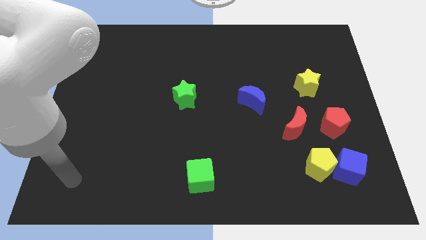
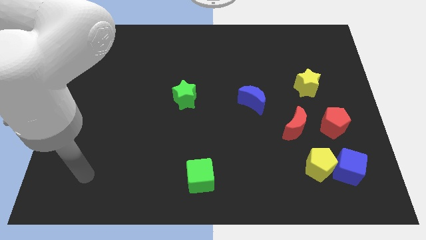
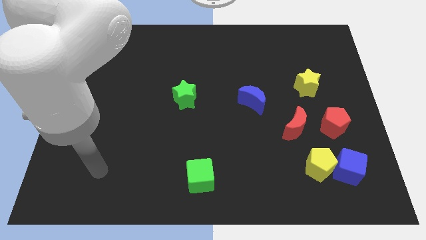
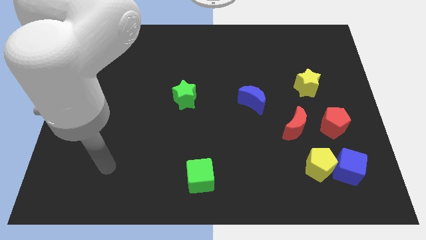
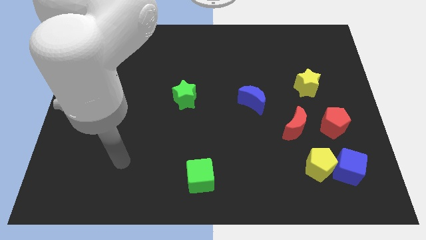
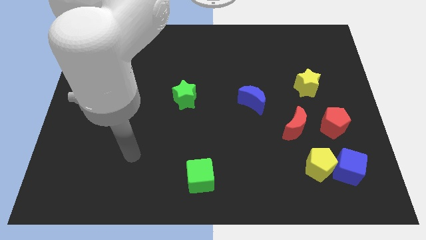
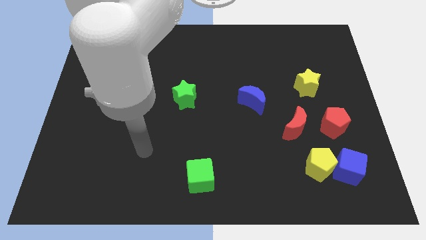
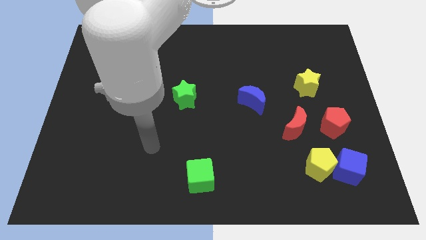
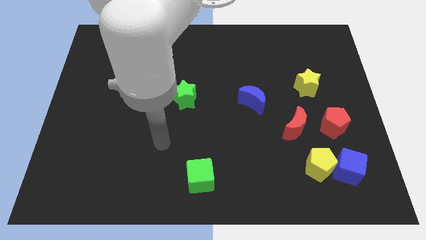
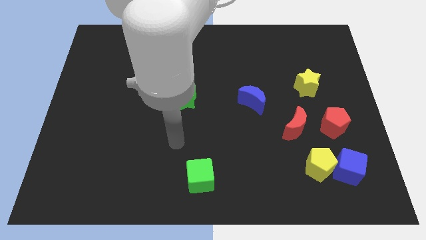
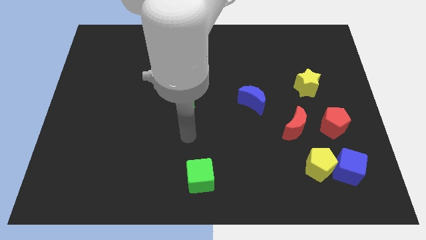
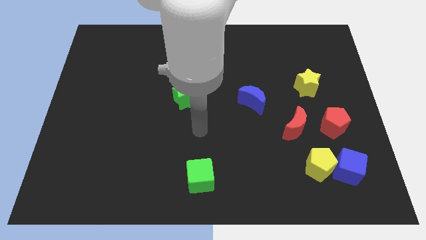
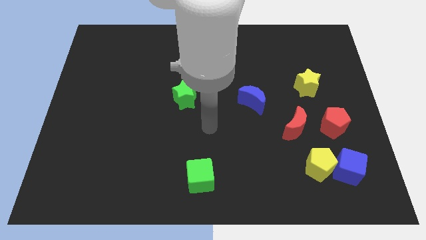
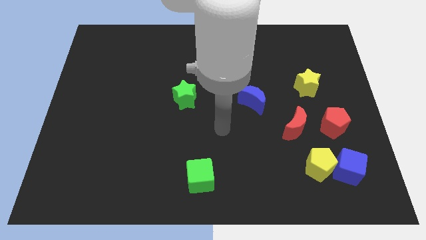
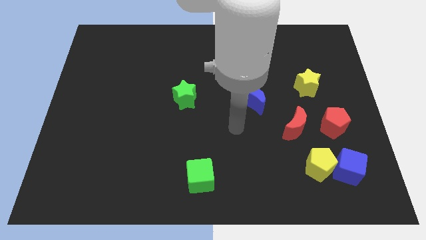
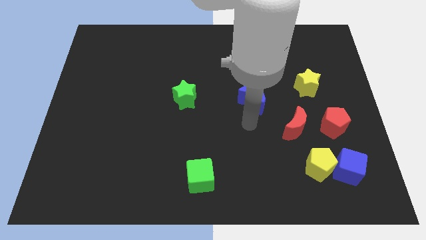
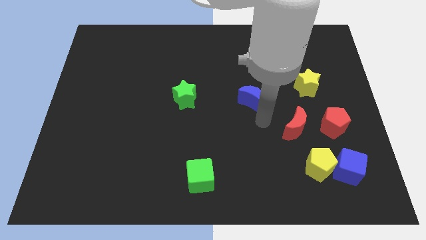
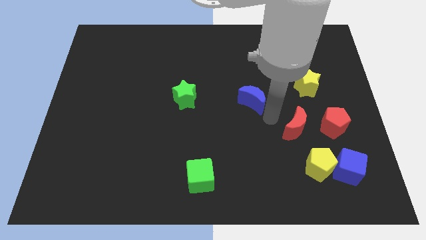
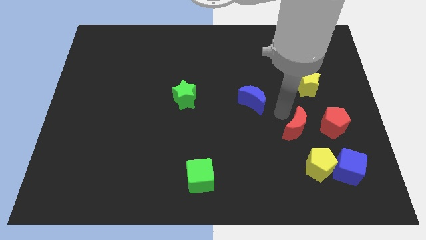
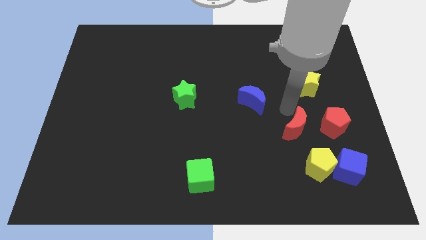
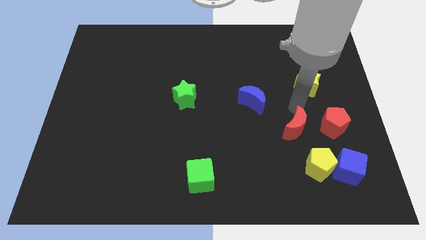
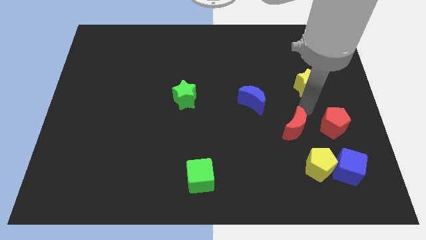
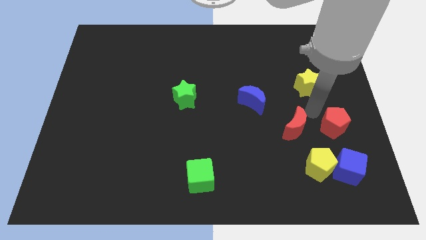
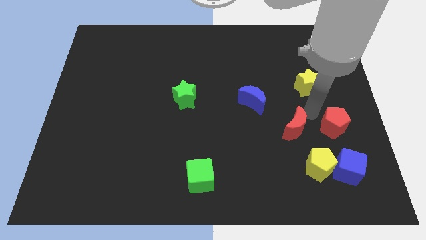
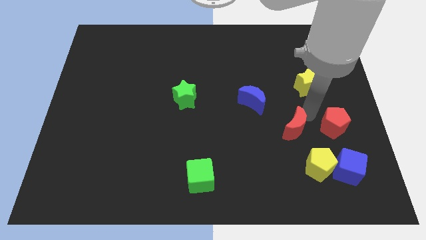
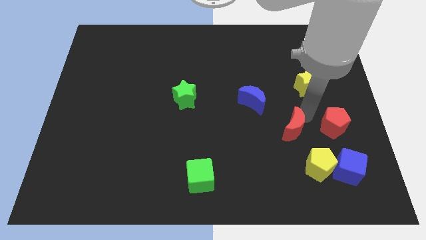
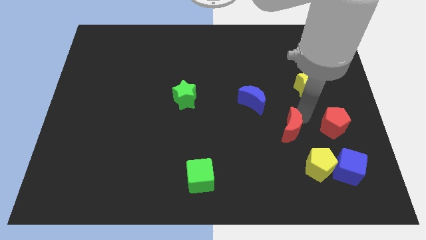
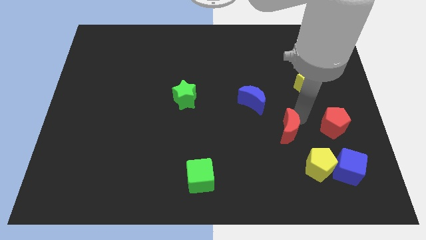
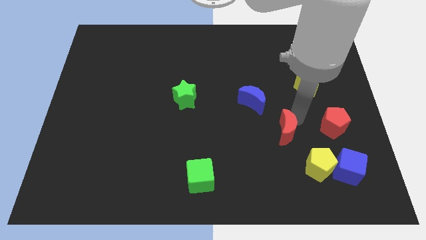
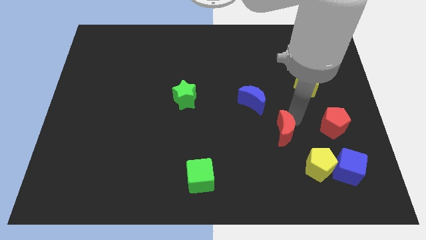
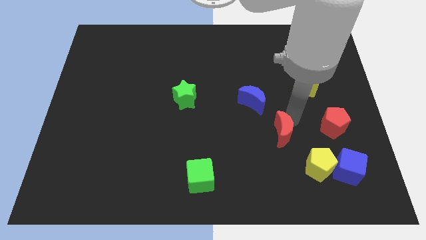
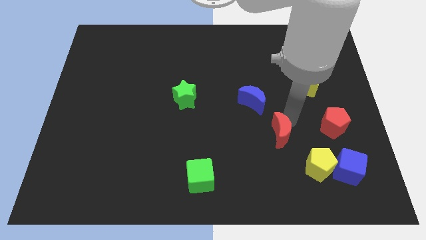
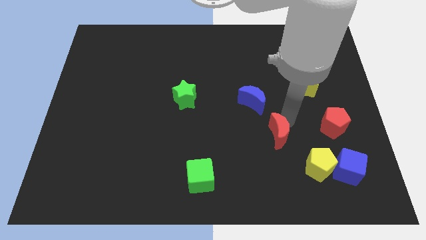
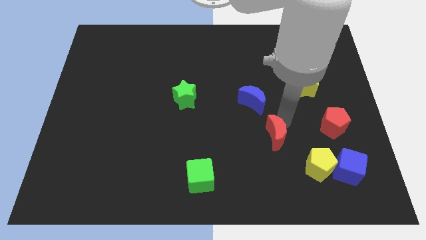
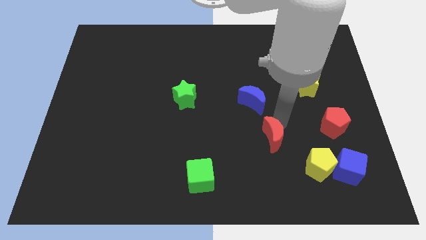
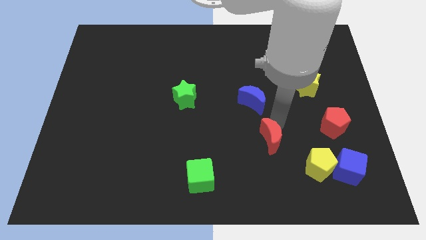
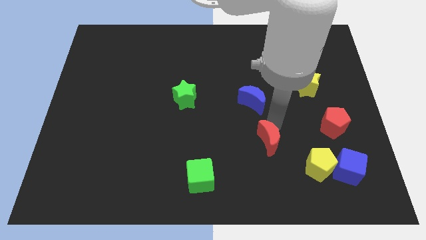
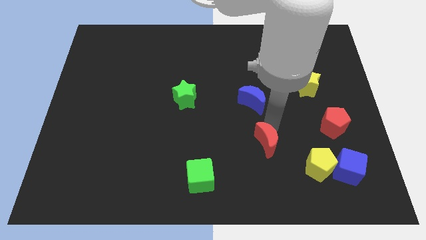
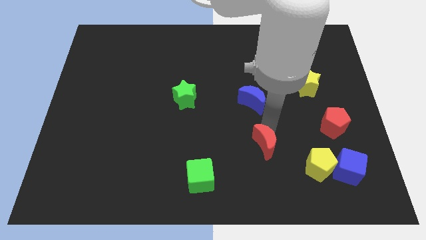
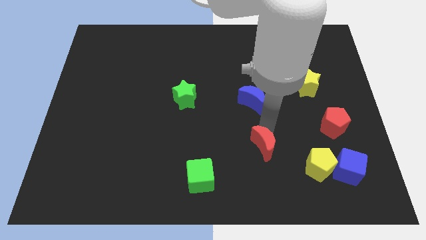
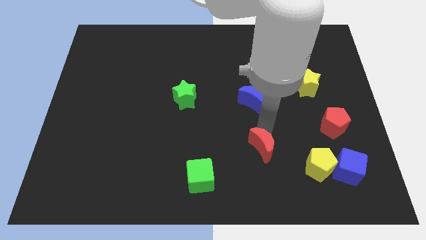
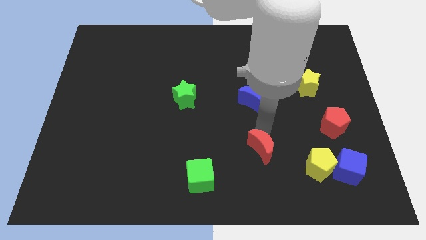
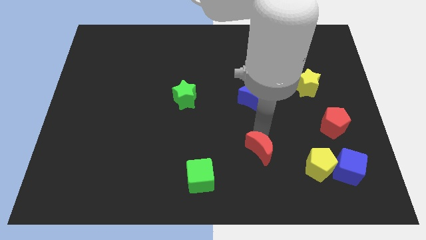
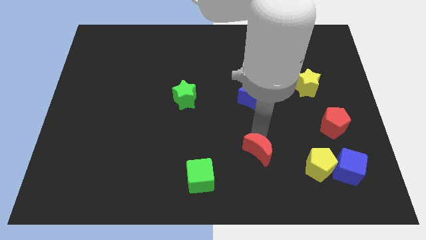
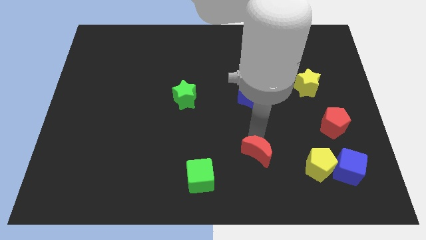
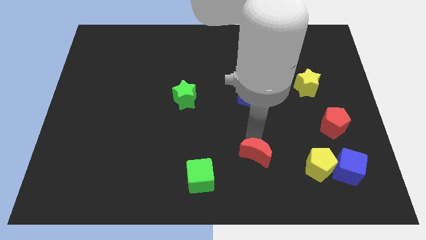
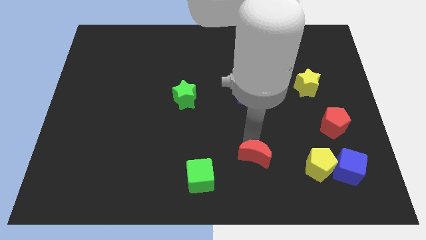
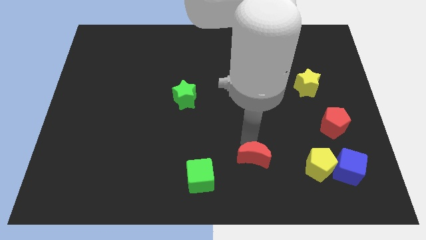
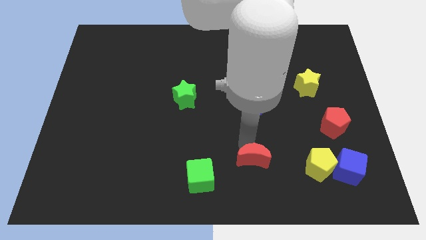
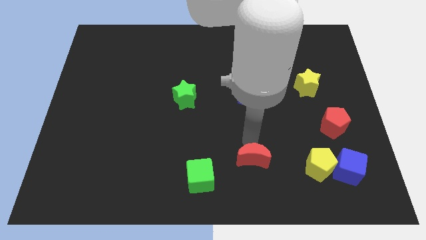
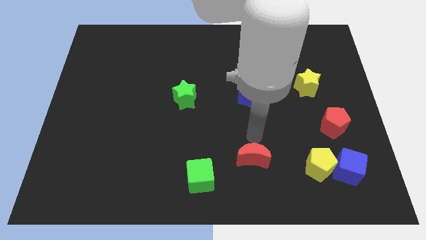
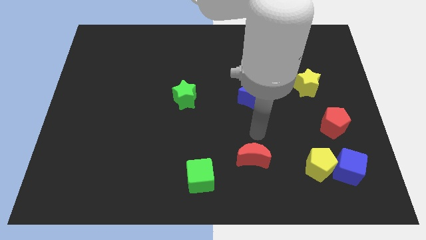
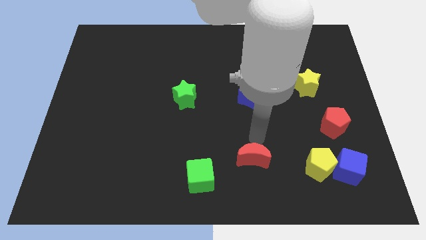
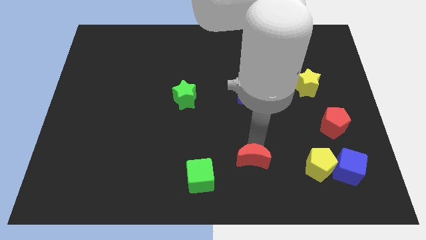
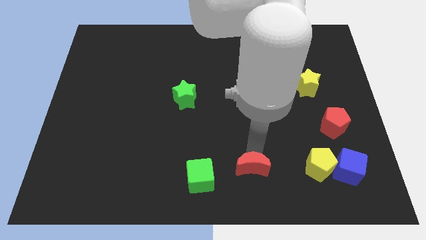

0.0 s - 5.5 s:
slide the red moon to the bottom side

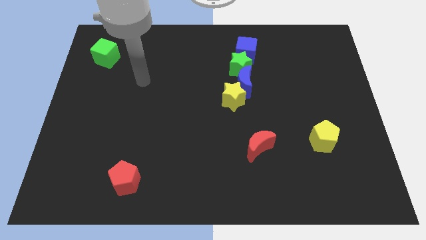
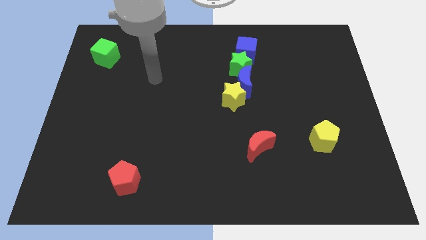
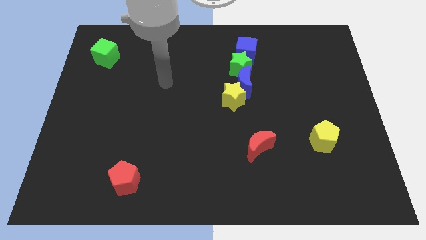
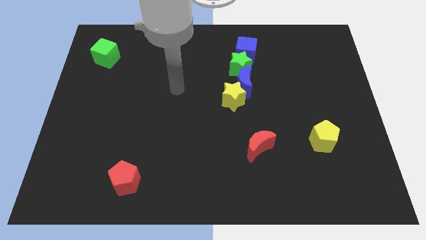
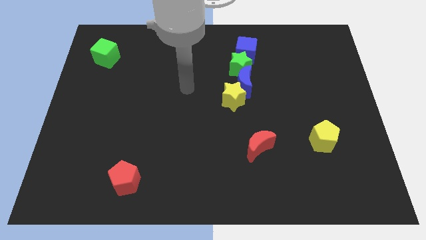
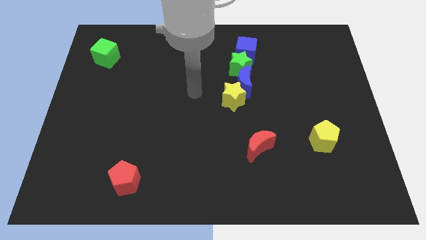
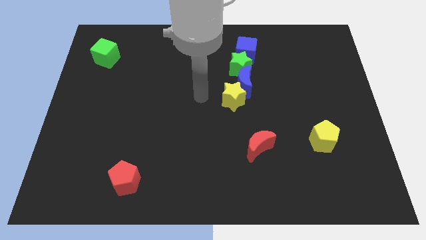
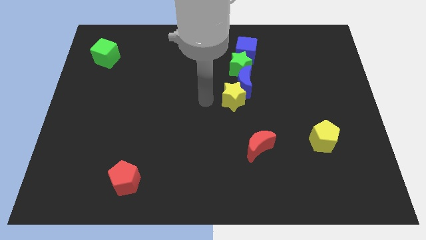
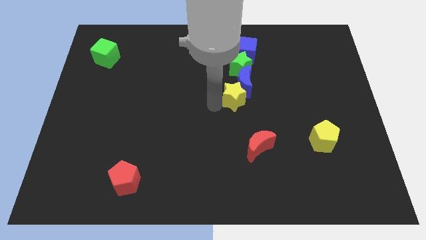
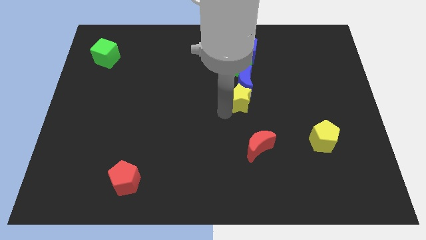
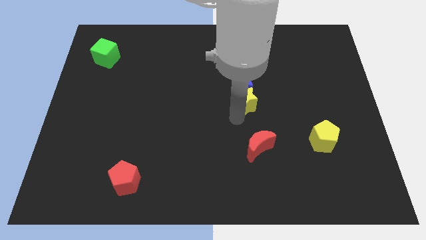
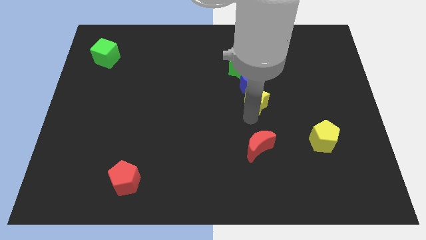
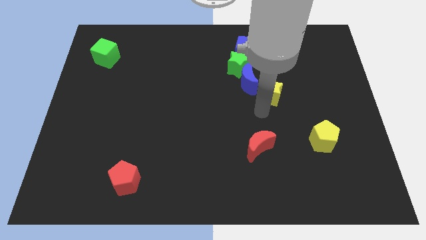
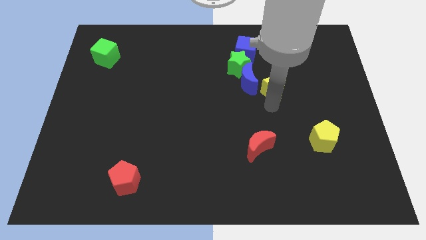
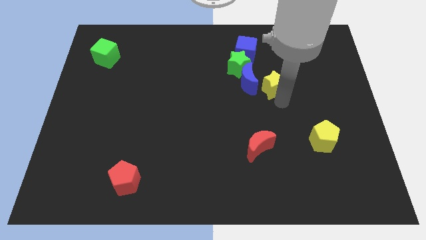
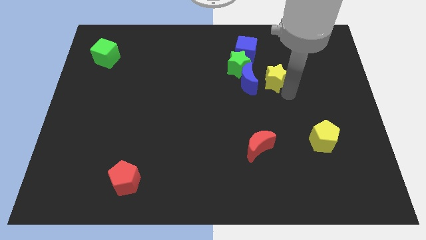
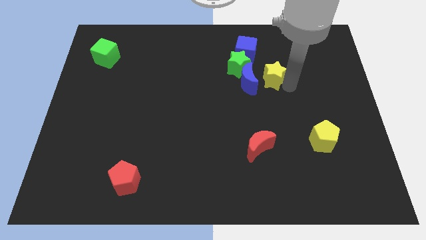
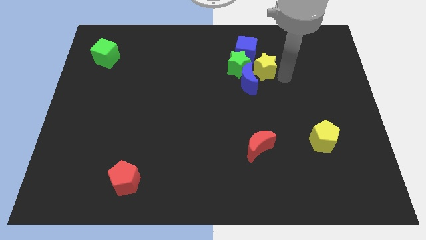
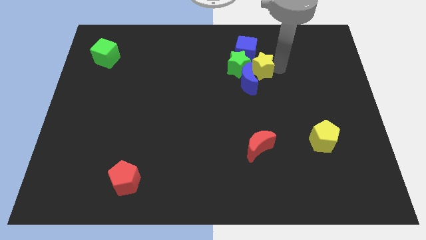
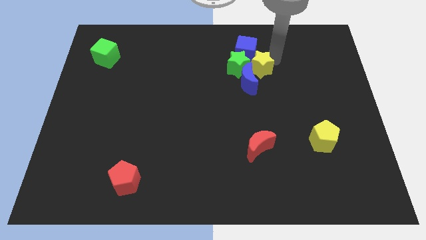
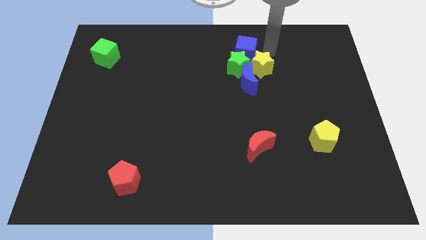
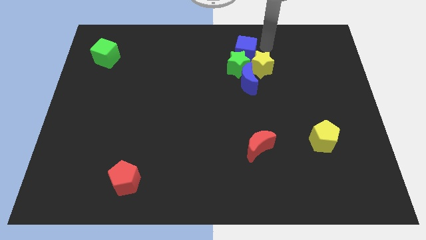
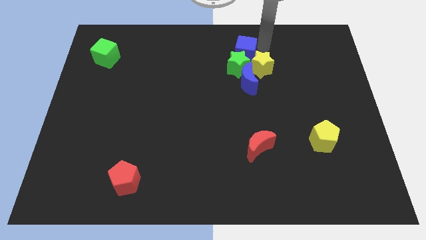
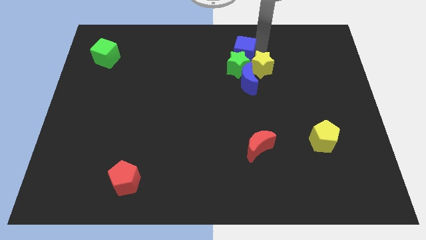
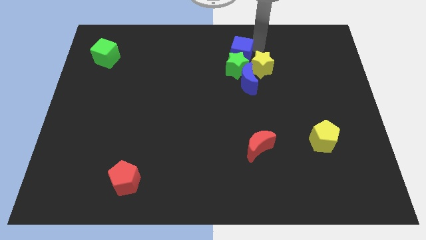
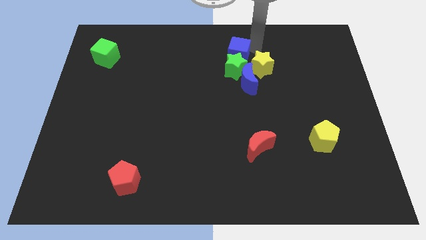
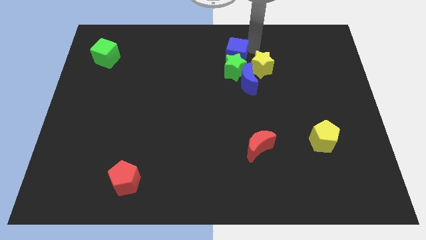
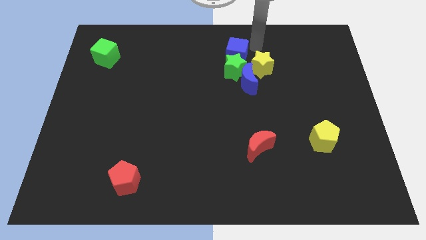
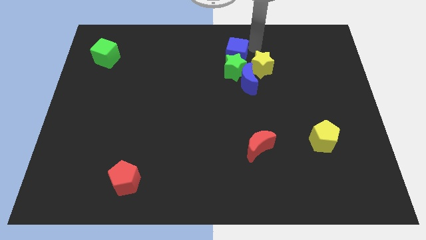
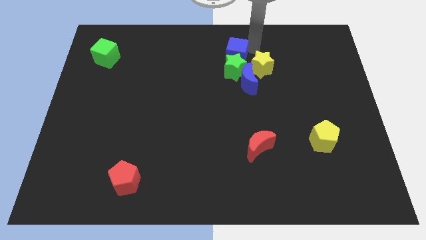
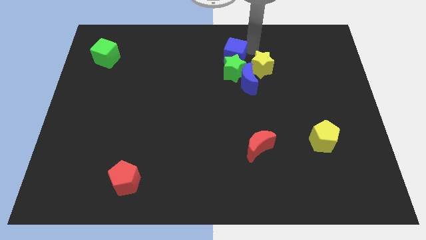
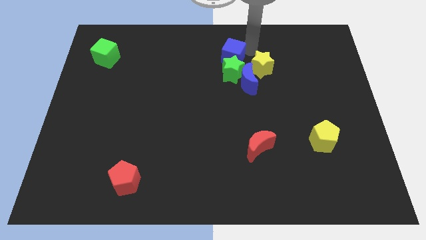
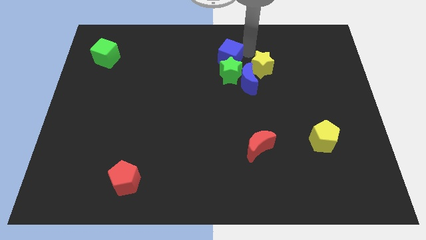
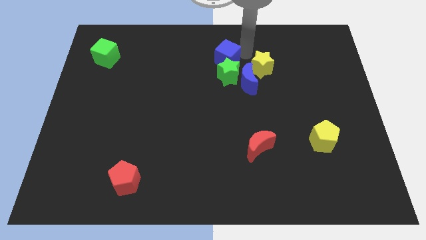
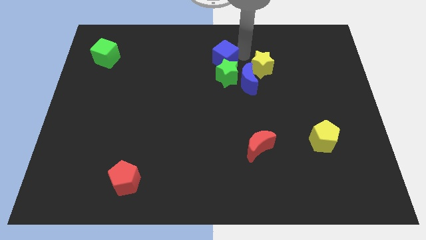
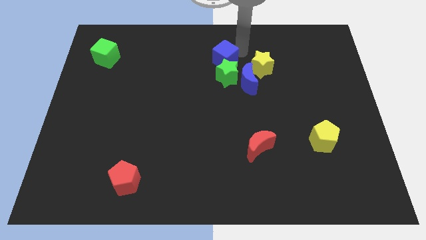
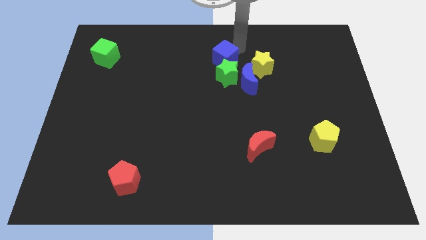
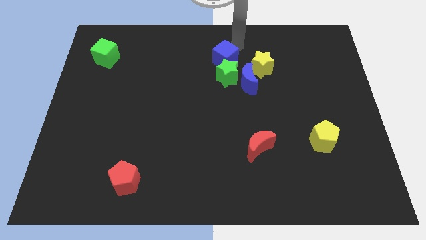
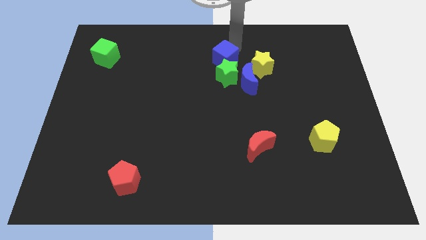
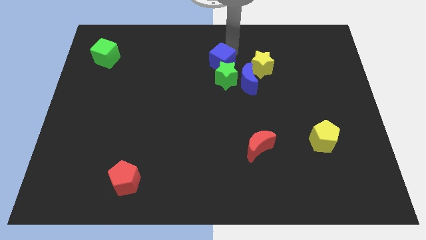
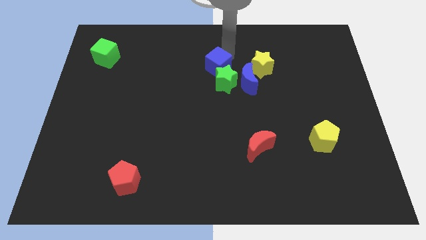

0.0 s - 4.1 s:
slide the blue cube to the center of the board
